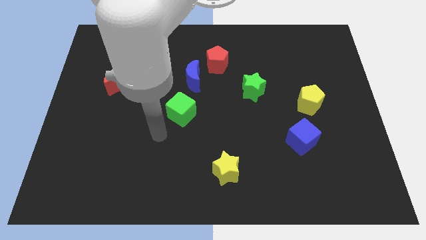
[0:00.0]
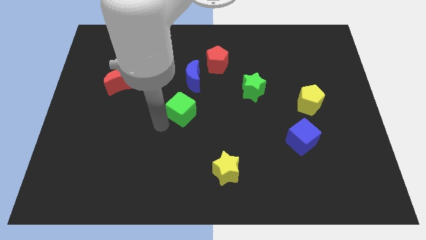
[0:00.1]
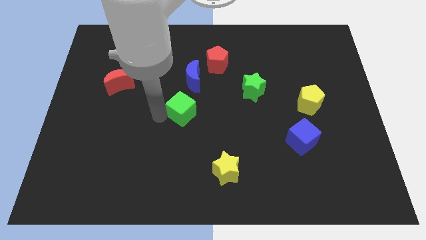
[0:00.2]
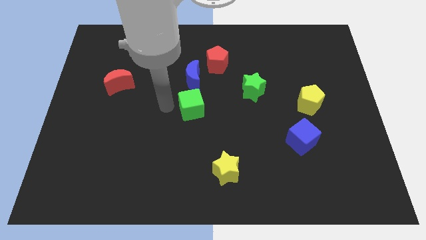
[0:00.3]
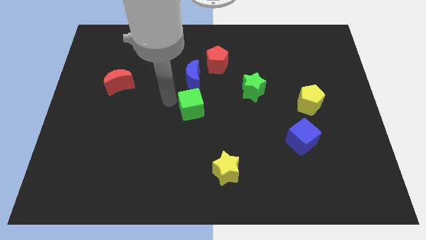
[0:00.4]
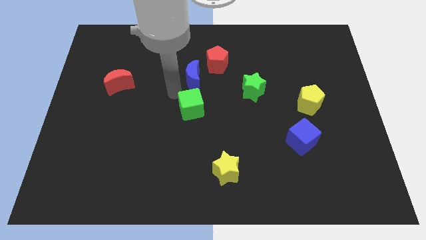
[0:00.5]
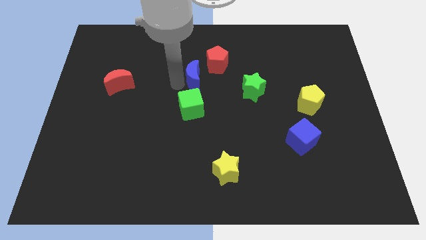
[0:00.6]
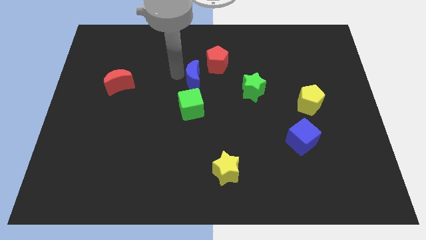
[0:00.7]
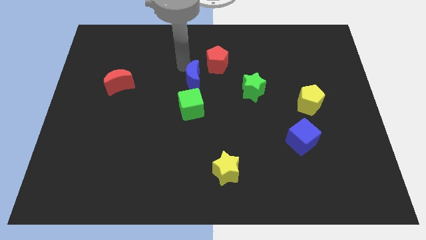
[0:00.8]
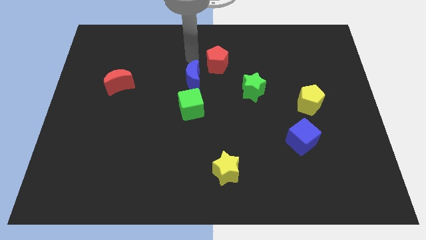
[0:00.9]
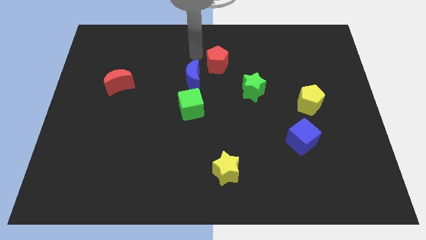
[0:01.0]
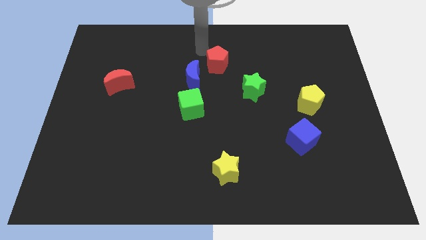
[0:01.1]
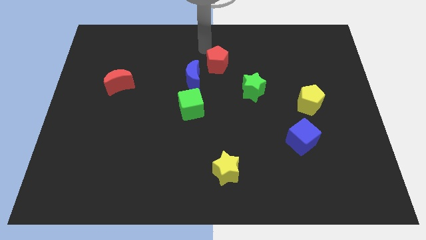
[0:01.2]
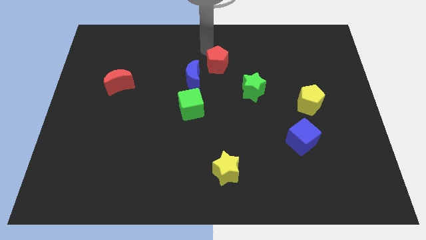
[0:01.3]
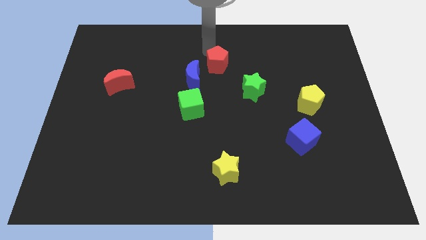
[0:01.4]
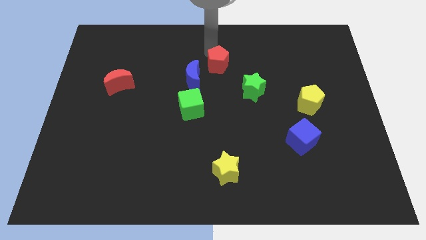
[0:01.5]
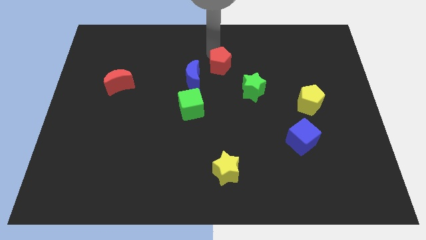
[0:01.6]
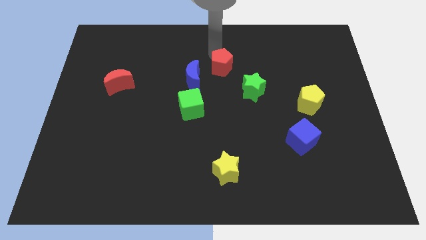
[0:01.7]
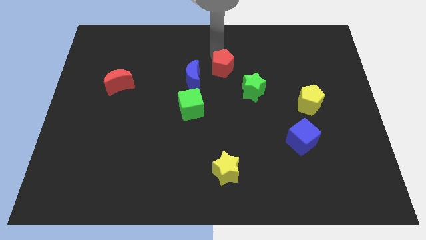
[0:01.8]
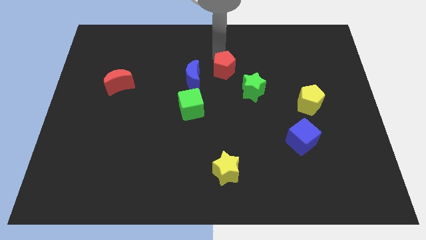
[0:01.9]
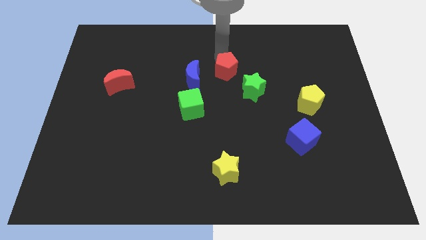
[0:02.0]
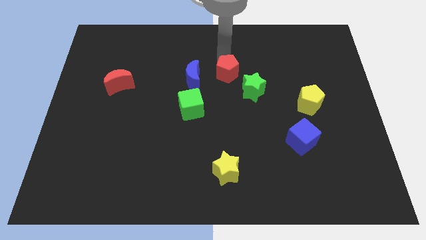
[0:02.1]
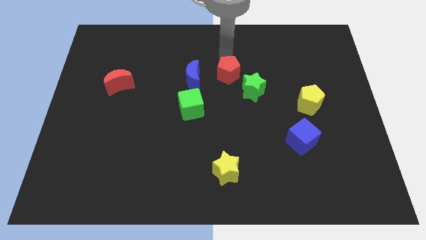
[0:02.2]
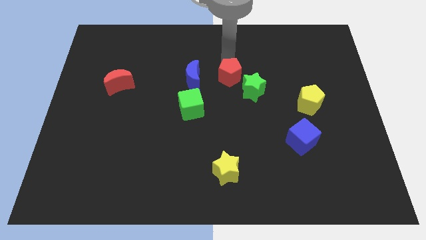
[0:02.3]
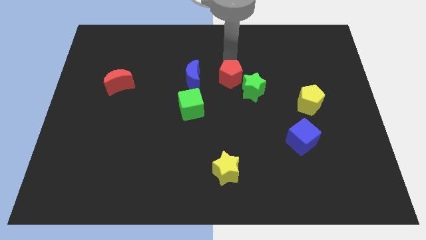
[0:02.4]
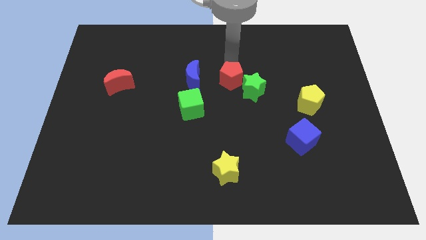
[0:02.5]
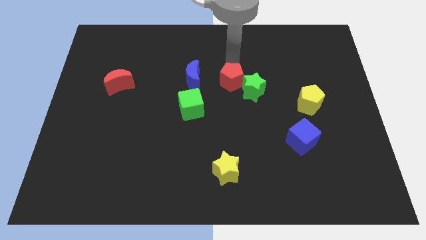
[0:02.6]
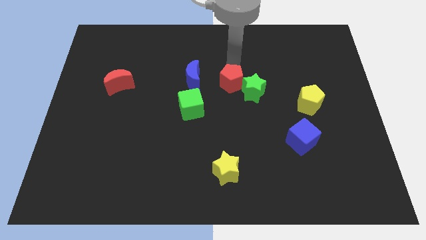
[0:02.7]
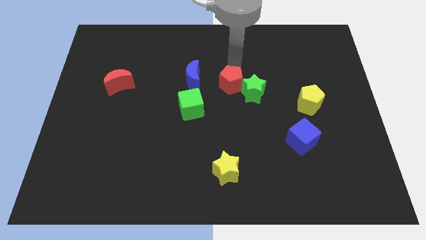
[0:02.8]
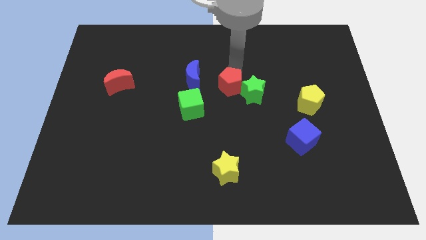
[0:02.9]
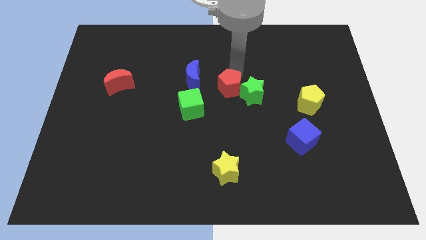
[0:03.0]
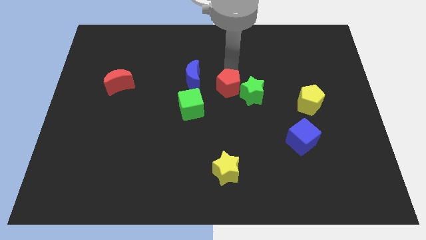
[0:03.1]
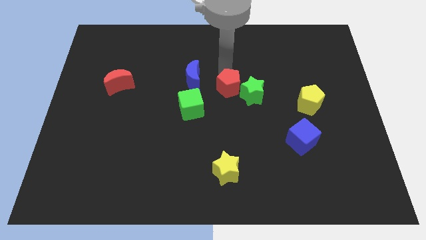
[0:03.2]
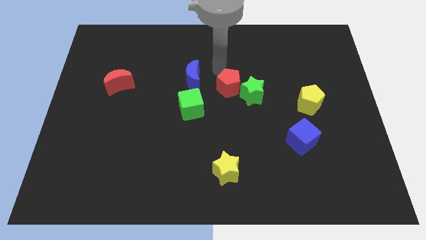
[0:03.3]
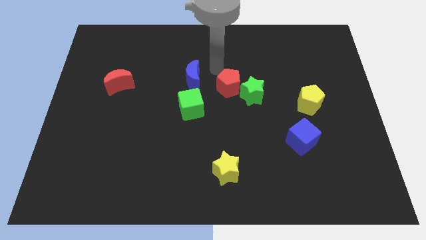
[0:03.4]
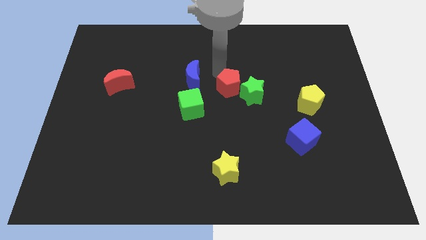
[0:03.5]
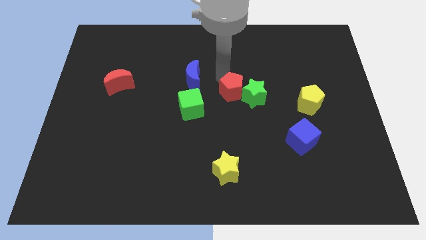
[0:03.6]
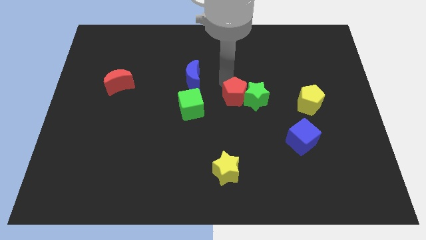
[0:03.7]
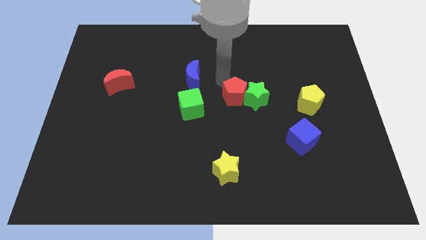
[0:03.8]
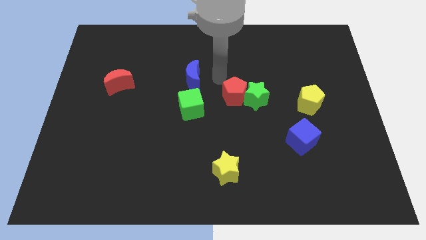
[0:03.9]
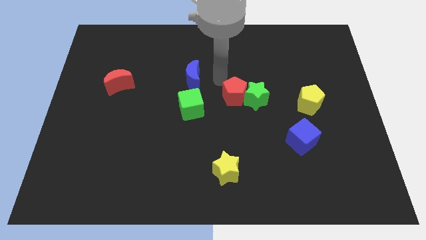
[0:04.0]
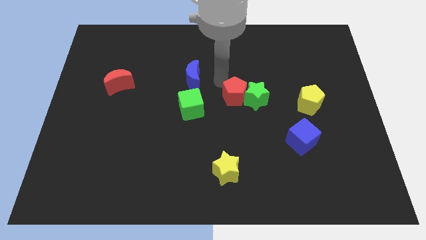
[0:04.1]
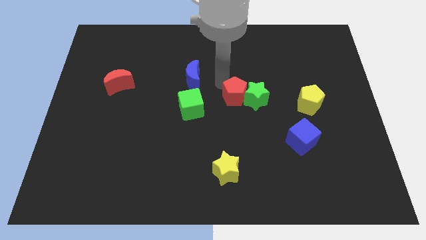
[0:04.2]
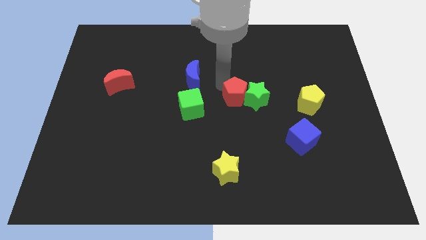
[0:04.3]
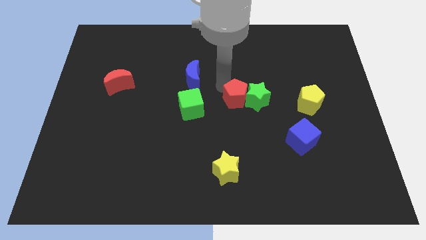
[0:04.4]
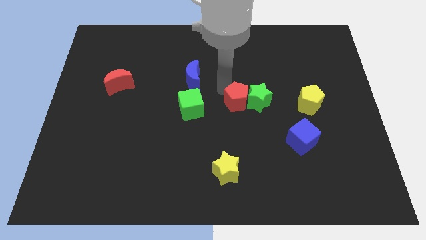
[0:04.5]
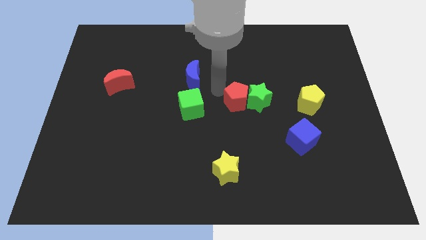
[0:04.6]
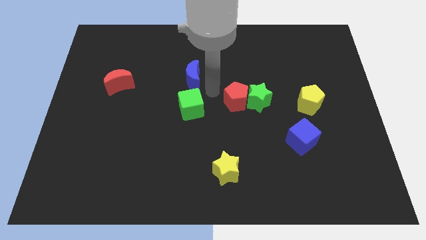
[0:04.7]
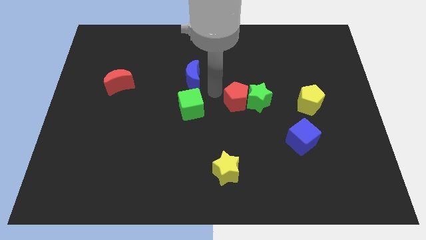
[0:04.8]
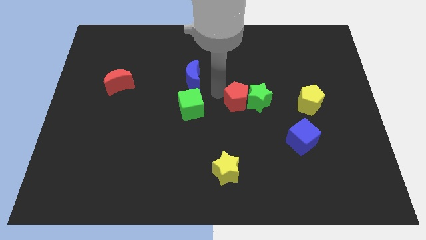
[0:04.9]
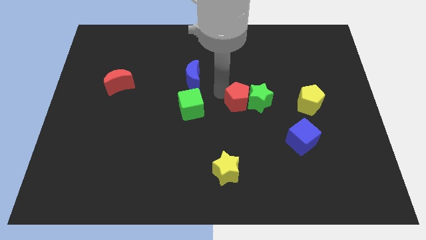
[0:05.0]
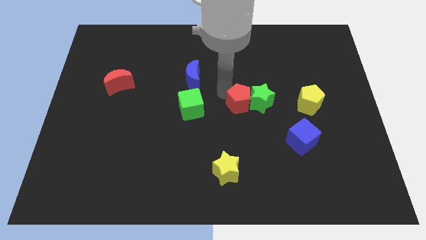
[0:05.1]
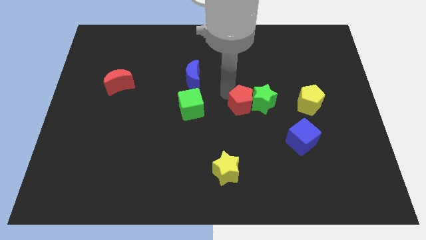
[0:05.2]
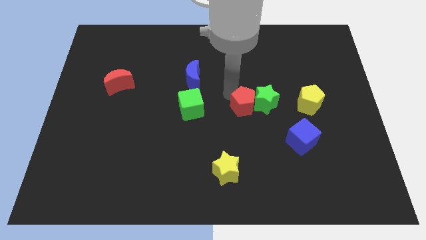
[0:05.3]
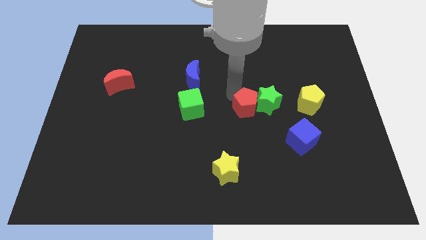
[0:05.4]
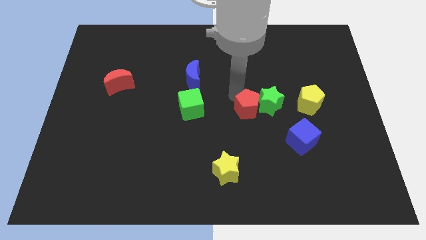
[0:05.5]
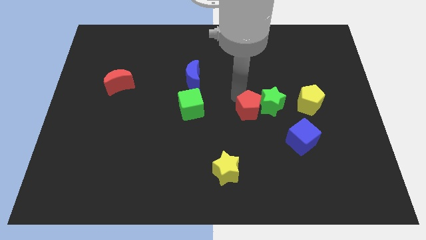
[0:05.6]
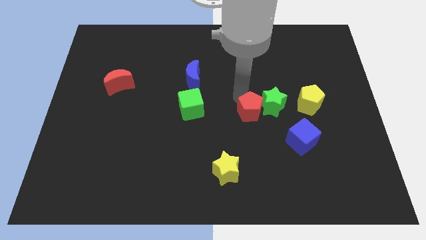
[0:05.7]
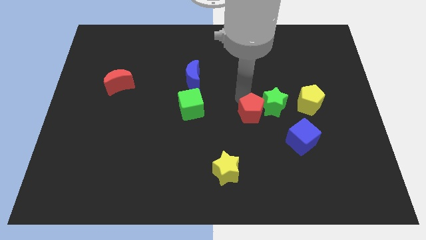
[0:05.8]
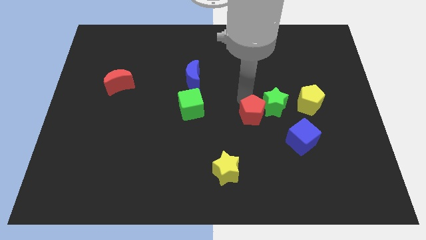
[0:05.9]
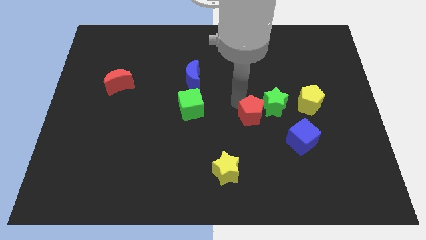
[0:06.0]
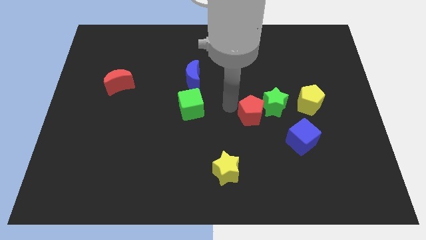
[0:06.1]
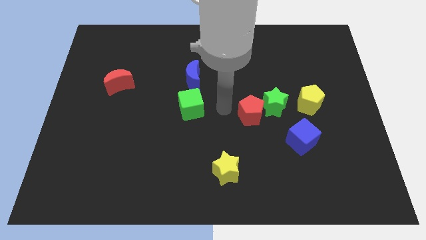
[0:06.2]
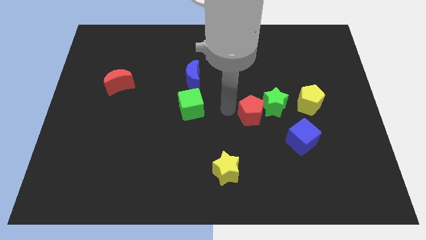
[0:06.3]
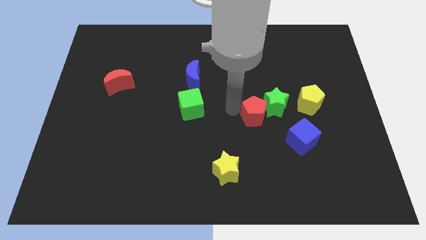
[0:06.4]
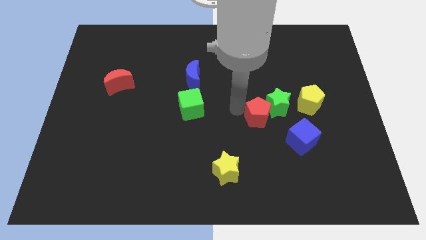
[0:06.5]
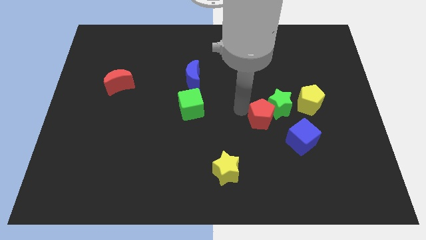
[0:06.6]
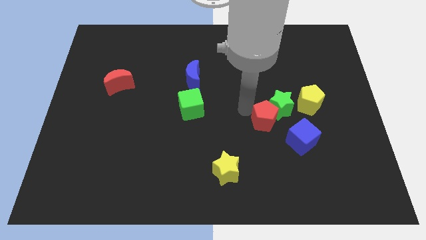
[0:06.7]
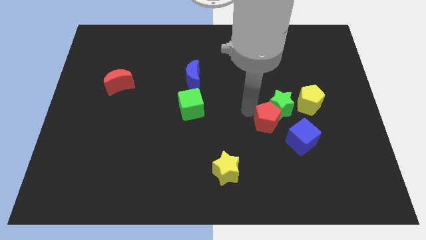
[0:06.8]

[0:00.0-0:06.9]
push the red pentagon downwards and then to the right

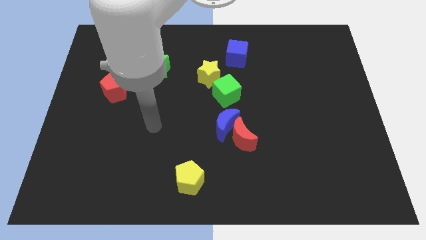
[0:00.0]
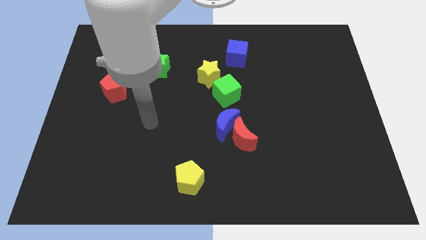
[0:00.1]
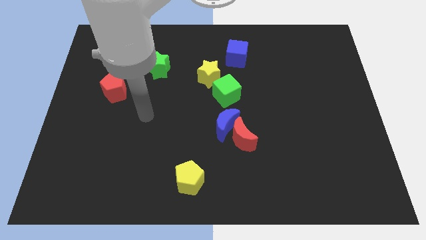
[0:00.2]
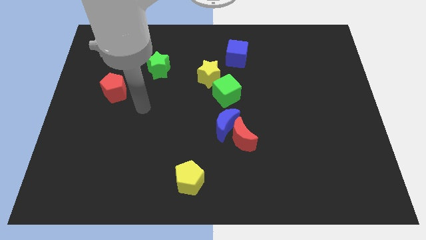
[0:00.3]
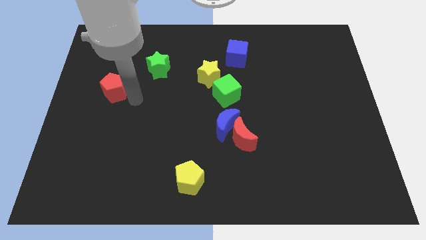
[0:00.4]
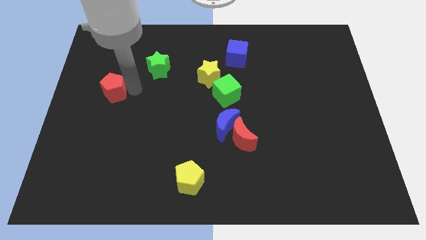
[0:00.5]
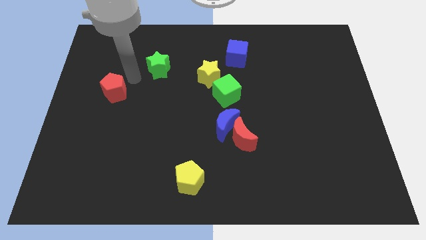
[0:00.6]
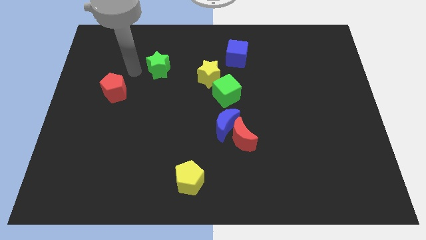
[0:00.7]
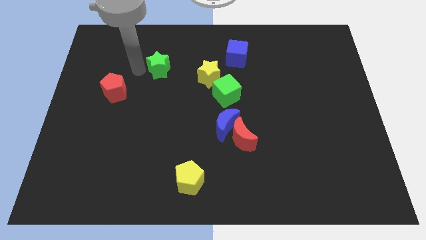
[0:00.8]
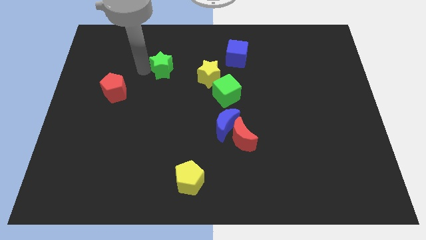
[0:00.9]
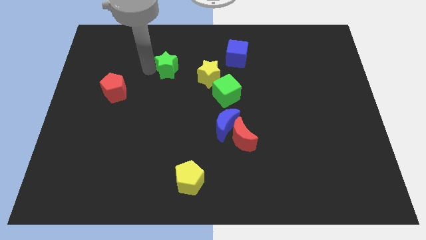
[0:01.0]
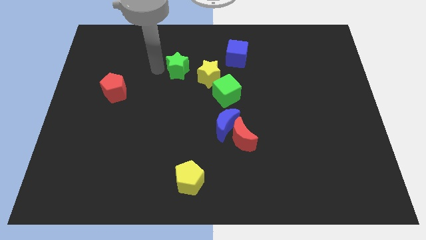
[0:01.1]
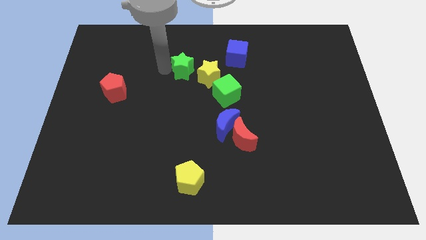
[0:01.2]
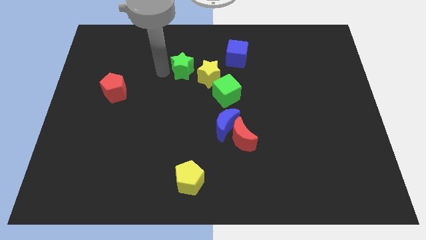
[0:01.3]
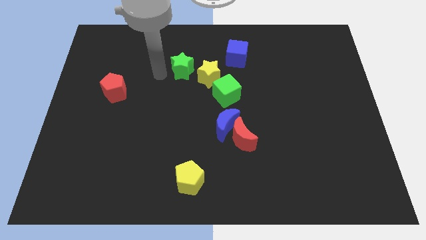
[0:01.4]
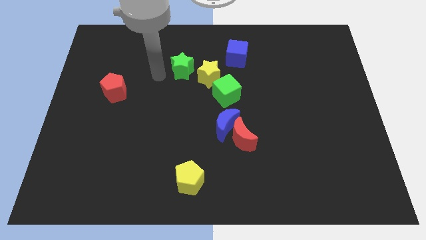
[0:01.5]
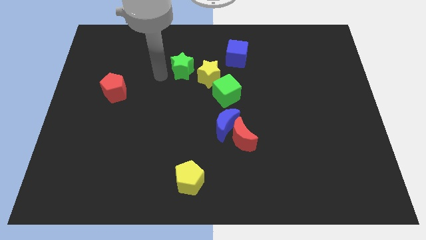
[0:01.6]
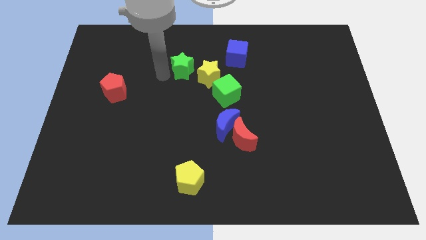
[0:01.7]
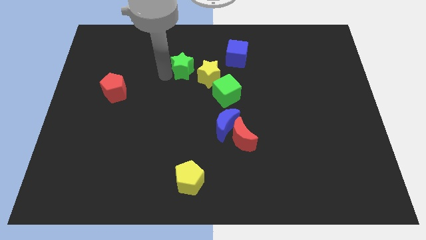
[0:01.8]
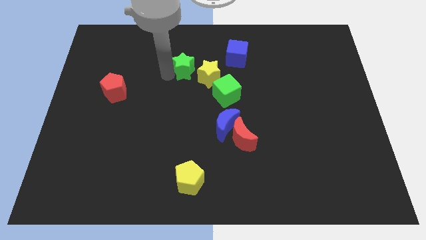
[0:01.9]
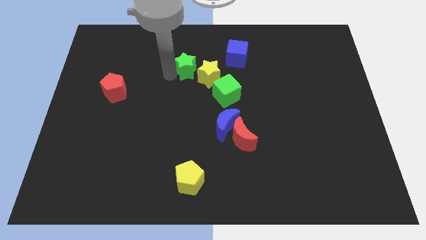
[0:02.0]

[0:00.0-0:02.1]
move the green star a bit to the right
